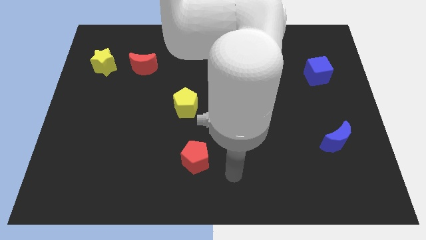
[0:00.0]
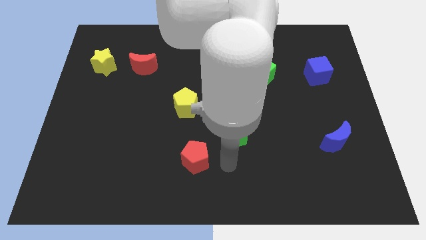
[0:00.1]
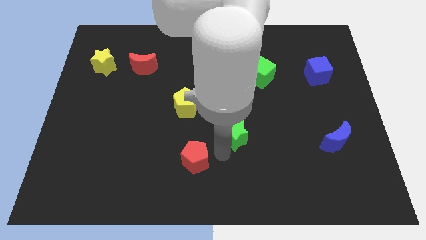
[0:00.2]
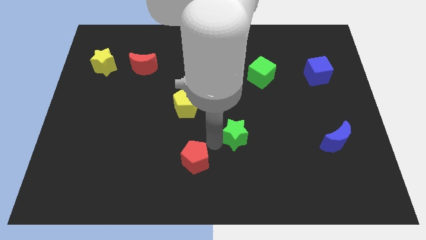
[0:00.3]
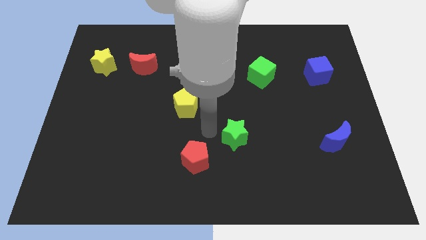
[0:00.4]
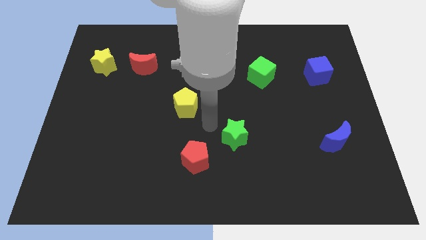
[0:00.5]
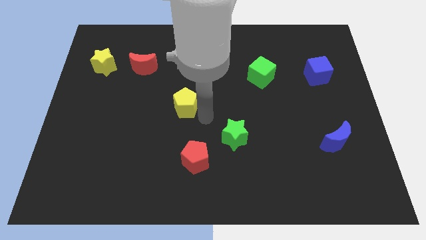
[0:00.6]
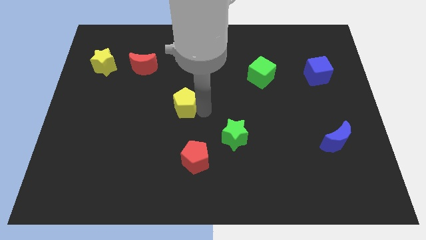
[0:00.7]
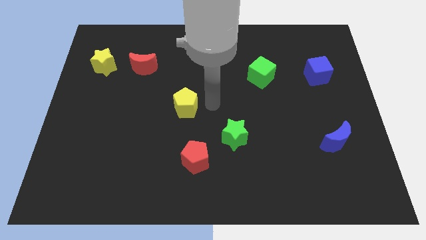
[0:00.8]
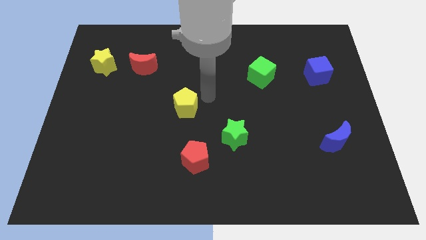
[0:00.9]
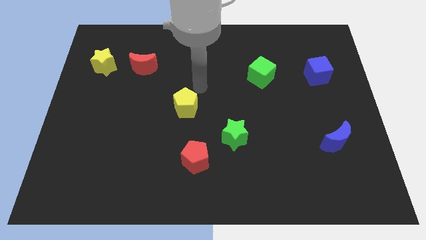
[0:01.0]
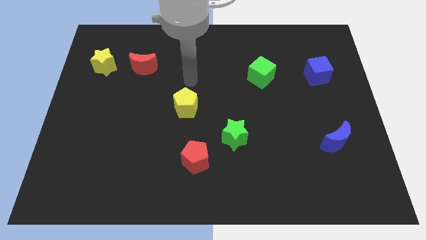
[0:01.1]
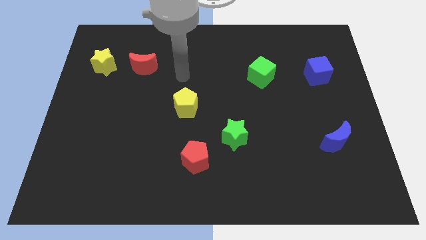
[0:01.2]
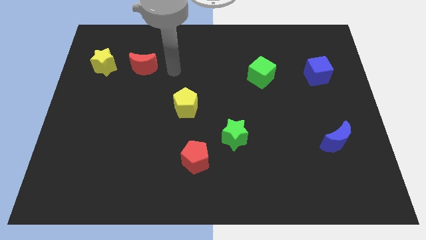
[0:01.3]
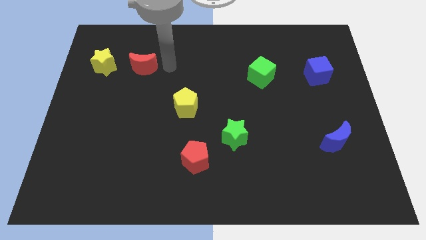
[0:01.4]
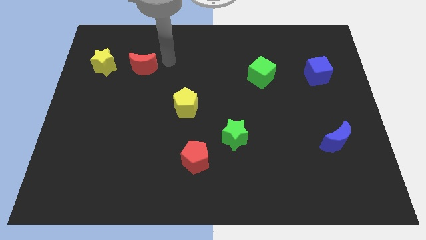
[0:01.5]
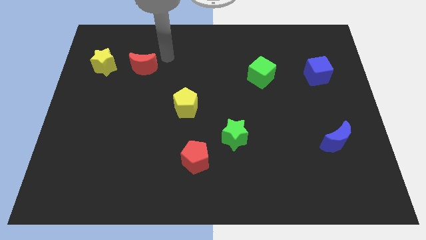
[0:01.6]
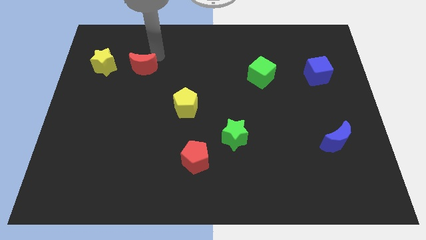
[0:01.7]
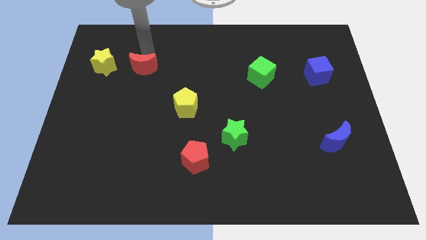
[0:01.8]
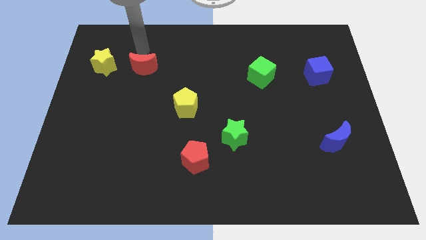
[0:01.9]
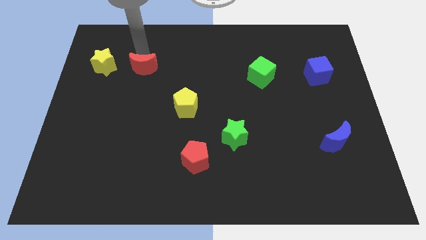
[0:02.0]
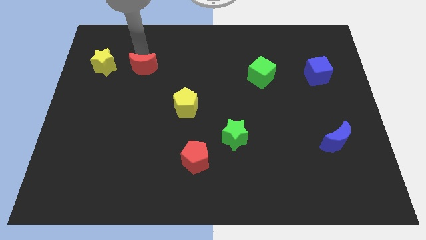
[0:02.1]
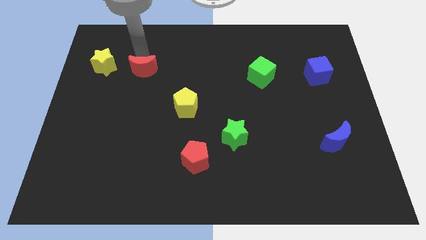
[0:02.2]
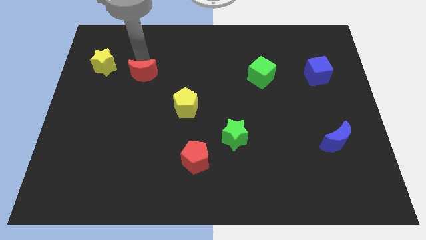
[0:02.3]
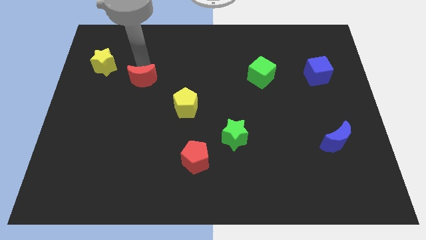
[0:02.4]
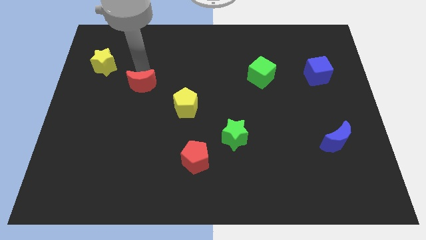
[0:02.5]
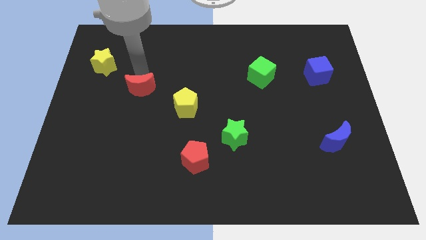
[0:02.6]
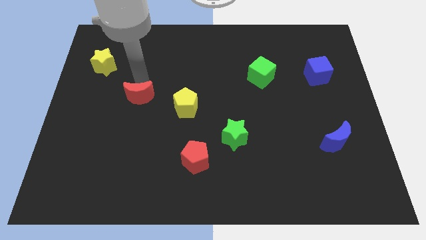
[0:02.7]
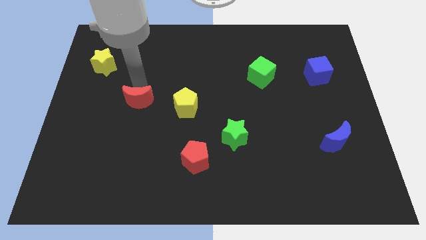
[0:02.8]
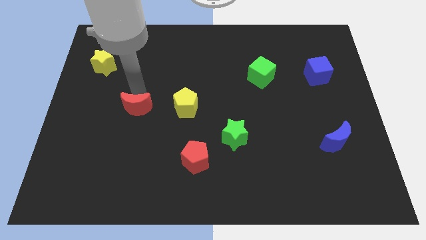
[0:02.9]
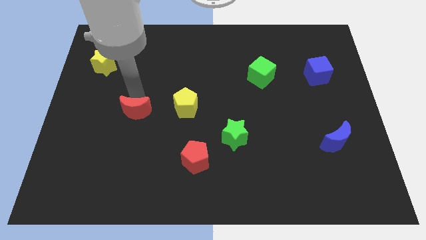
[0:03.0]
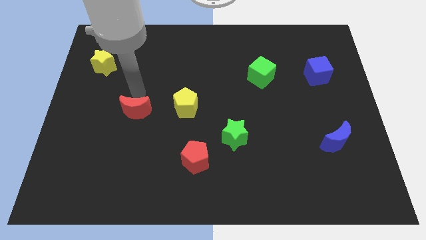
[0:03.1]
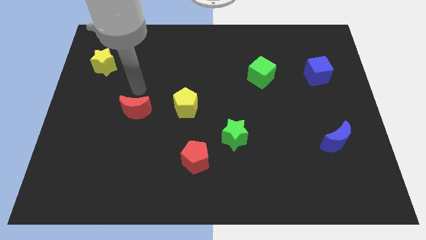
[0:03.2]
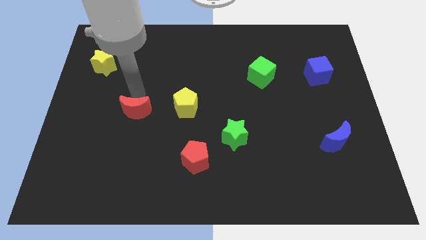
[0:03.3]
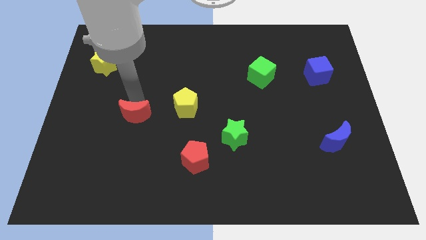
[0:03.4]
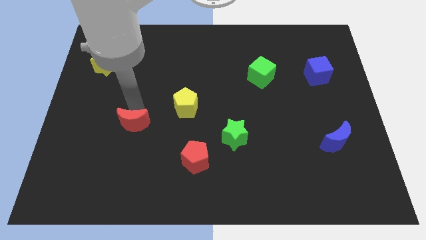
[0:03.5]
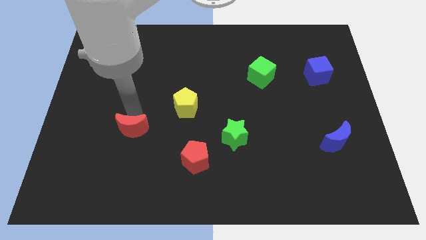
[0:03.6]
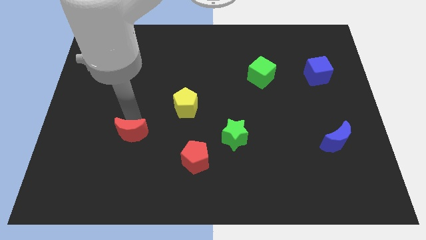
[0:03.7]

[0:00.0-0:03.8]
move the red moon down

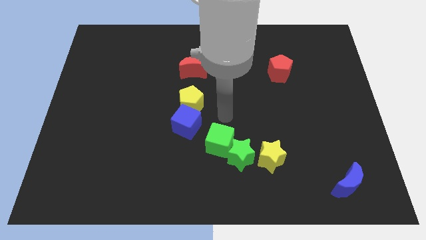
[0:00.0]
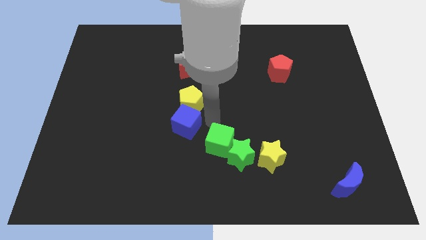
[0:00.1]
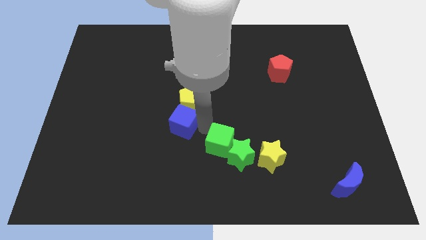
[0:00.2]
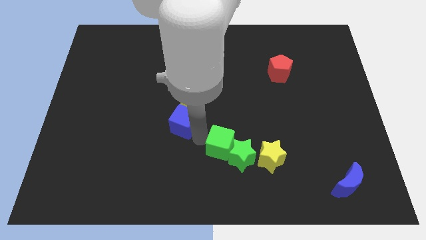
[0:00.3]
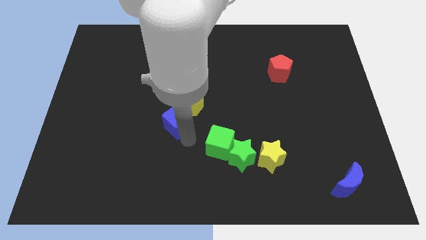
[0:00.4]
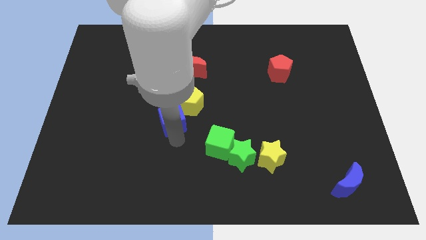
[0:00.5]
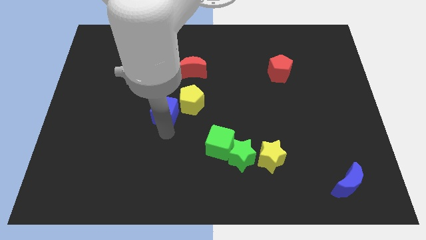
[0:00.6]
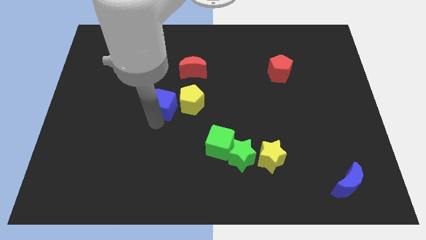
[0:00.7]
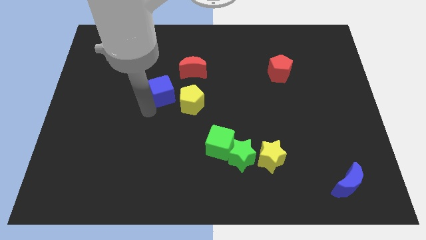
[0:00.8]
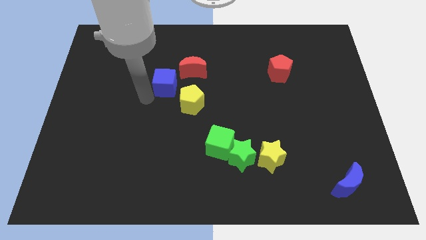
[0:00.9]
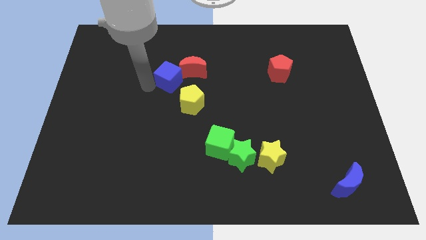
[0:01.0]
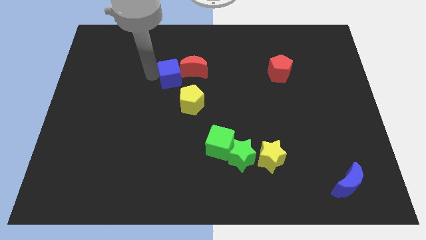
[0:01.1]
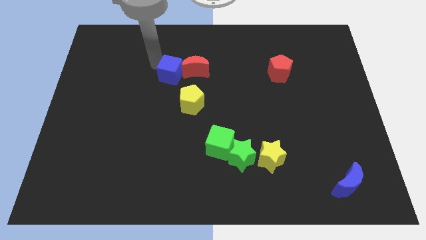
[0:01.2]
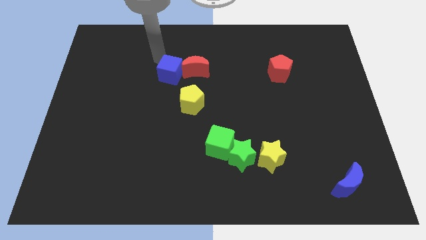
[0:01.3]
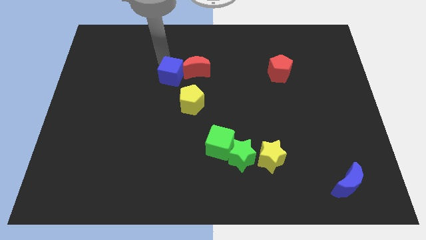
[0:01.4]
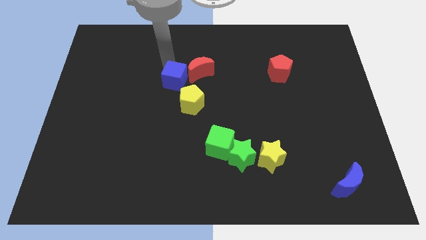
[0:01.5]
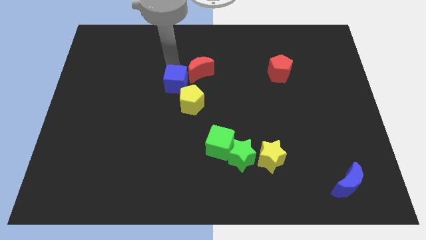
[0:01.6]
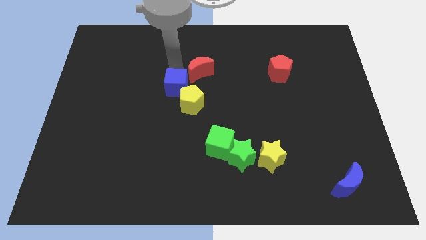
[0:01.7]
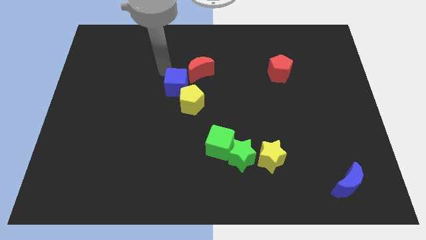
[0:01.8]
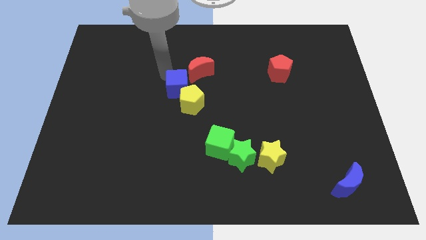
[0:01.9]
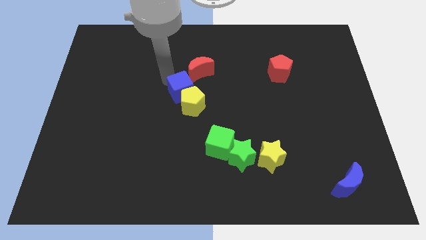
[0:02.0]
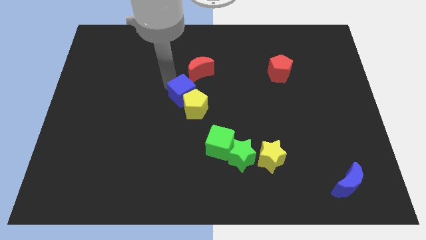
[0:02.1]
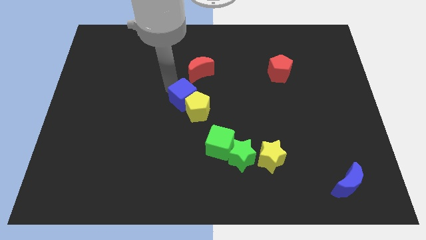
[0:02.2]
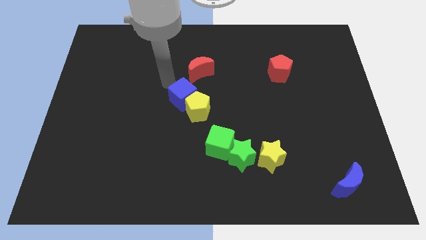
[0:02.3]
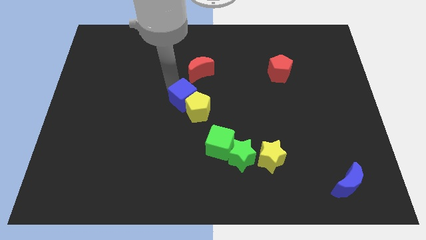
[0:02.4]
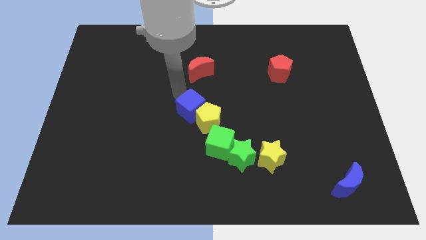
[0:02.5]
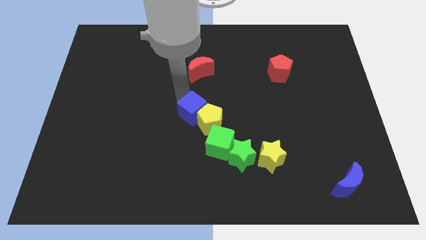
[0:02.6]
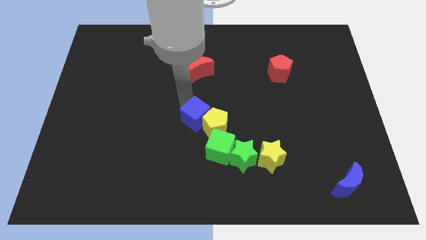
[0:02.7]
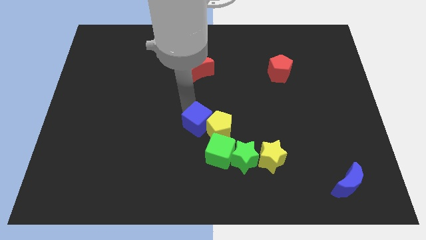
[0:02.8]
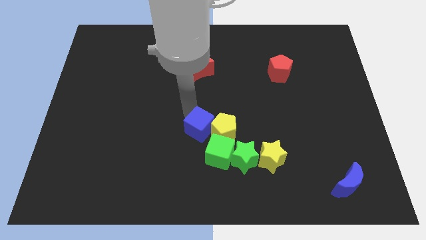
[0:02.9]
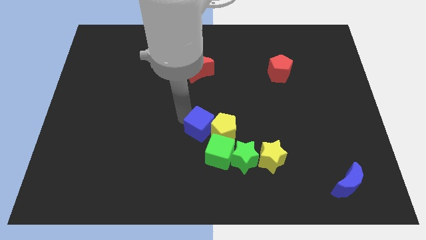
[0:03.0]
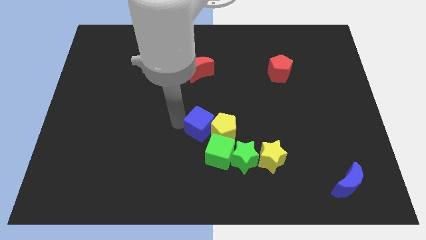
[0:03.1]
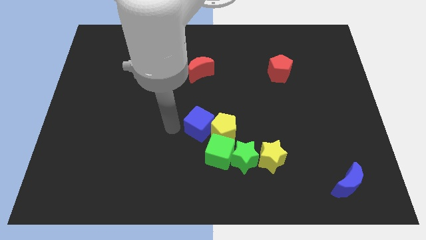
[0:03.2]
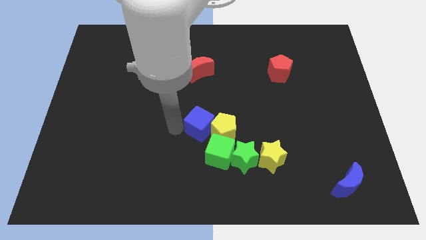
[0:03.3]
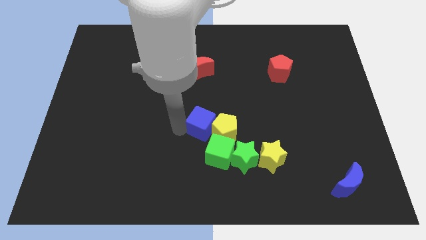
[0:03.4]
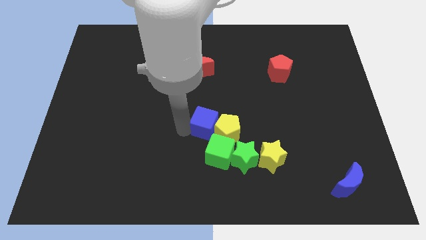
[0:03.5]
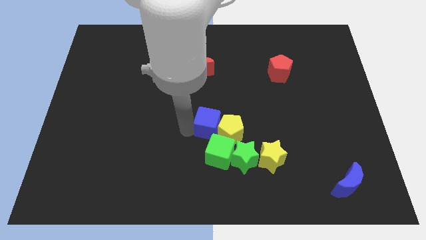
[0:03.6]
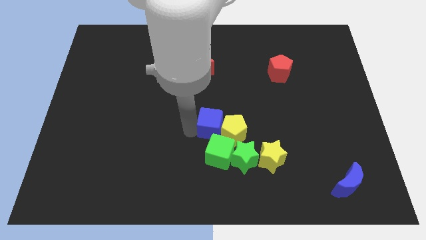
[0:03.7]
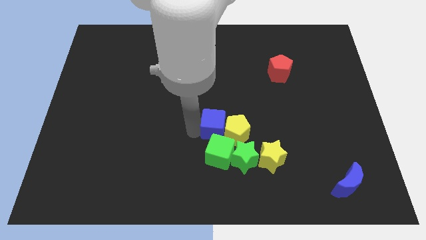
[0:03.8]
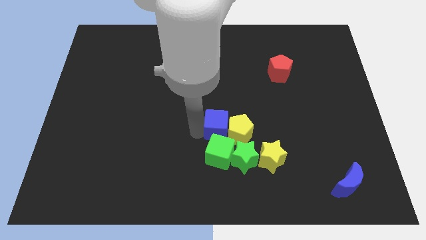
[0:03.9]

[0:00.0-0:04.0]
slightly move the blue cube to the right

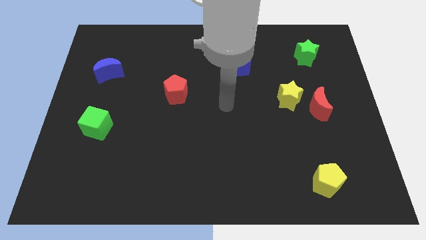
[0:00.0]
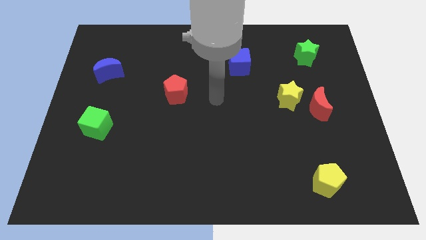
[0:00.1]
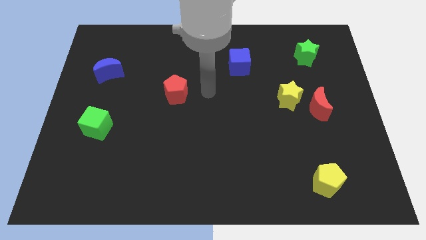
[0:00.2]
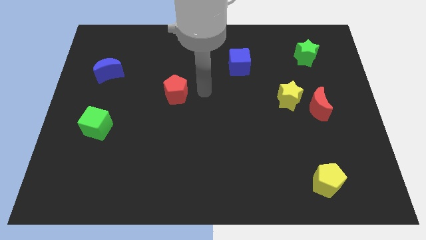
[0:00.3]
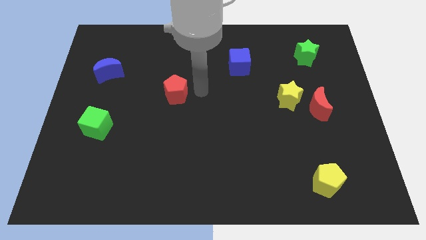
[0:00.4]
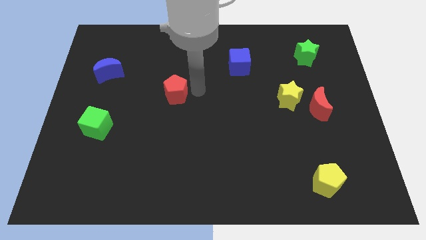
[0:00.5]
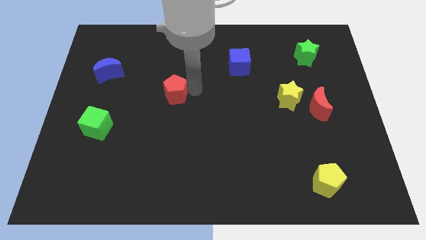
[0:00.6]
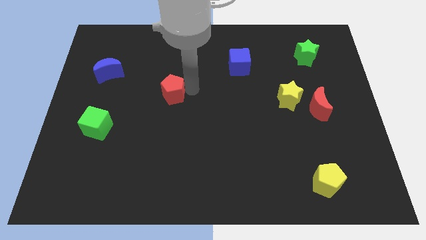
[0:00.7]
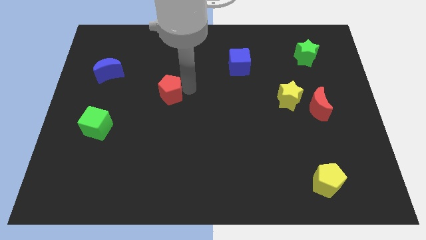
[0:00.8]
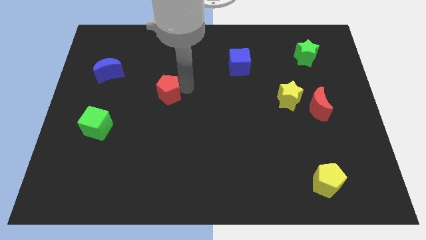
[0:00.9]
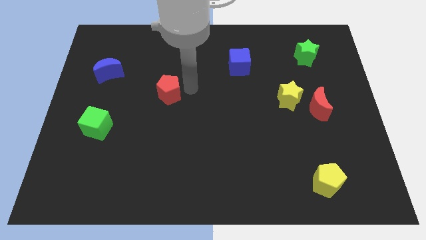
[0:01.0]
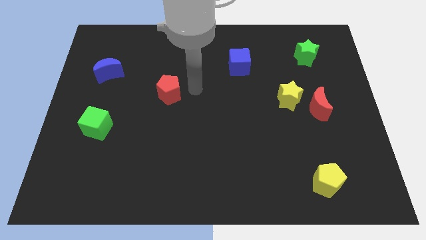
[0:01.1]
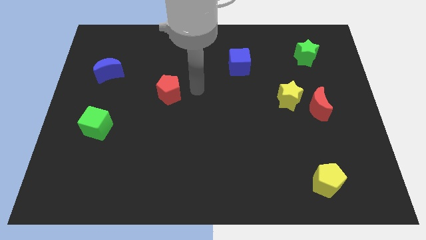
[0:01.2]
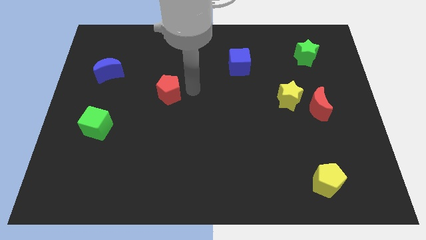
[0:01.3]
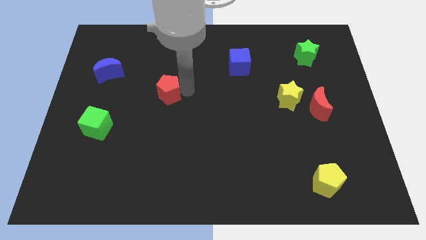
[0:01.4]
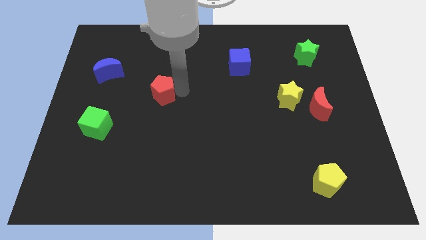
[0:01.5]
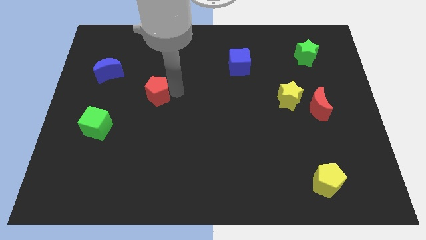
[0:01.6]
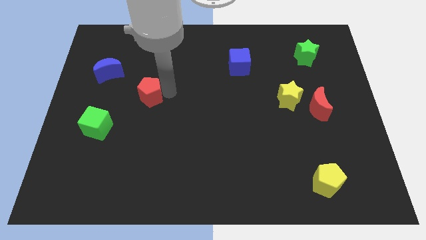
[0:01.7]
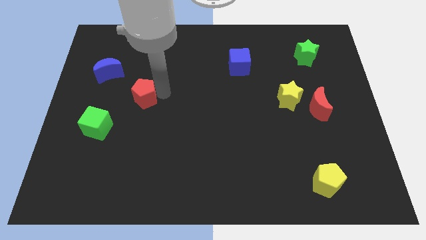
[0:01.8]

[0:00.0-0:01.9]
slide the red pentagon to the left a little bit
